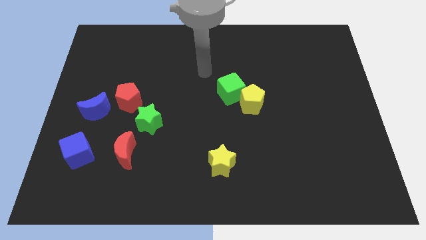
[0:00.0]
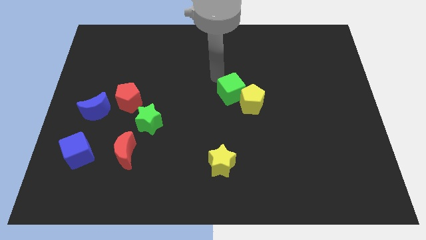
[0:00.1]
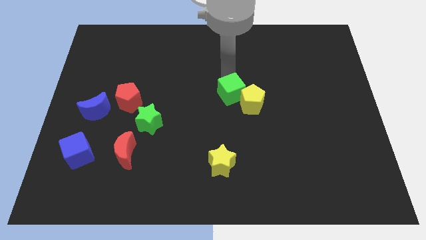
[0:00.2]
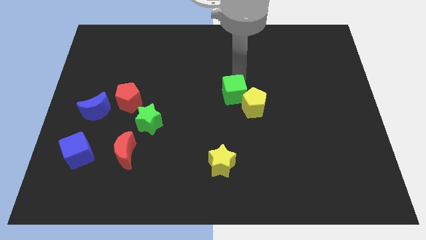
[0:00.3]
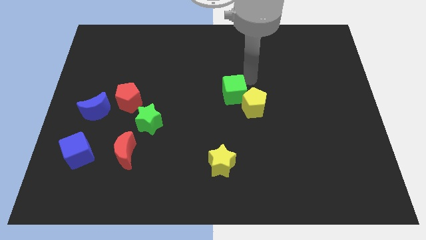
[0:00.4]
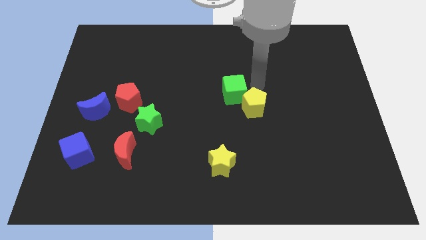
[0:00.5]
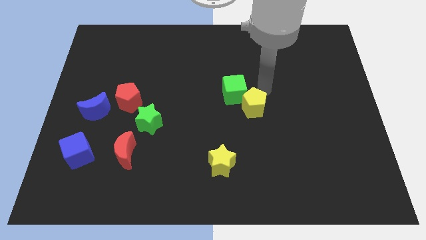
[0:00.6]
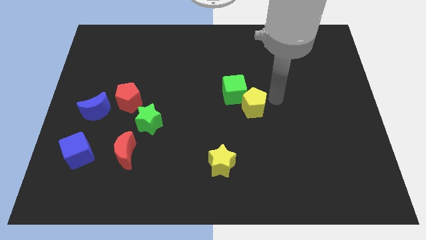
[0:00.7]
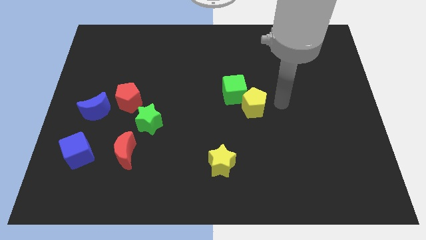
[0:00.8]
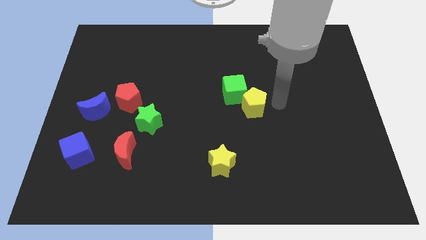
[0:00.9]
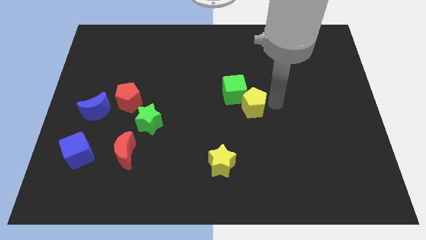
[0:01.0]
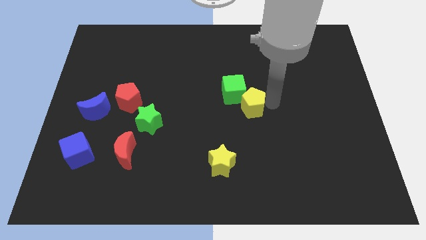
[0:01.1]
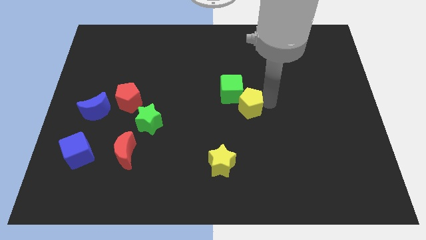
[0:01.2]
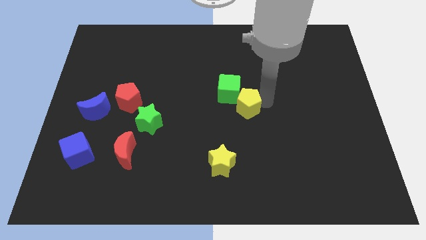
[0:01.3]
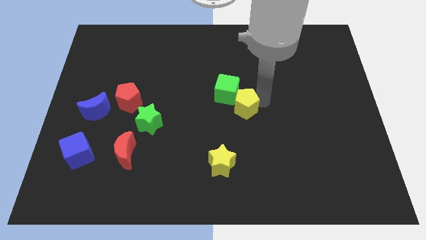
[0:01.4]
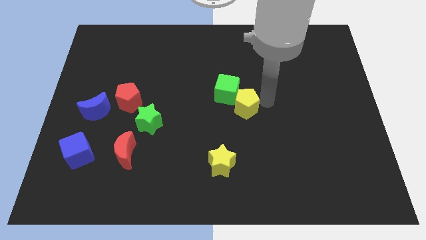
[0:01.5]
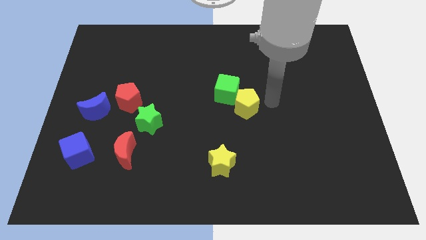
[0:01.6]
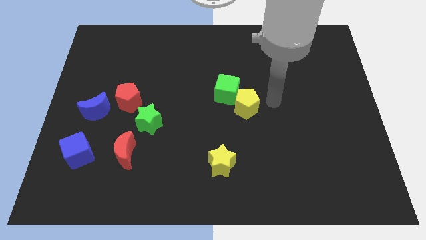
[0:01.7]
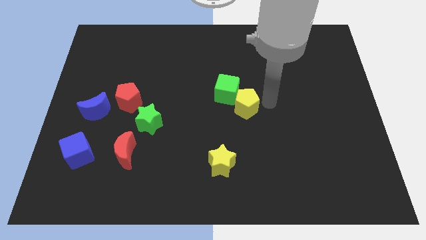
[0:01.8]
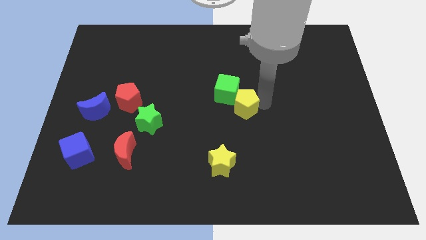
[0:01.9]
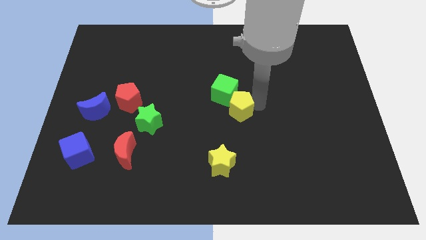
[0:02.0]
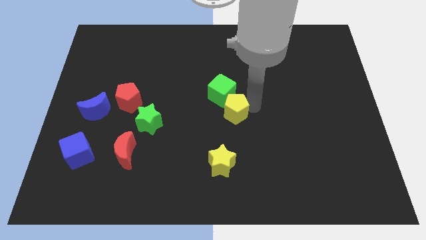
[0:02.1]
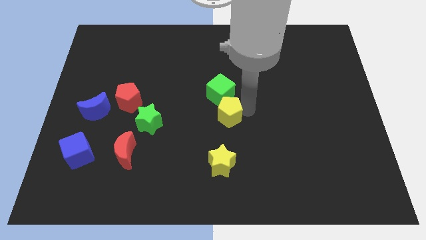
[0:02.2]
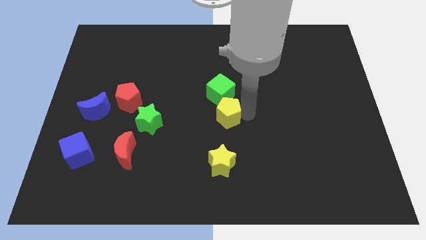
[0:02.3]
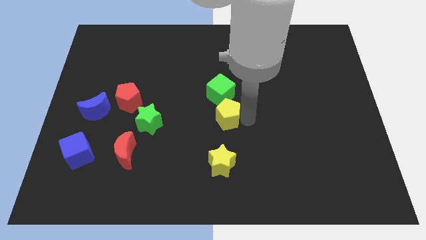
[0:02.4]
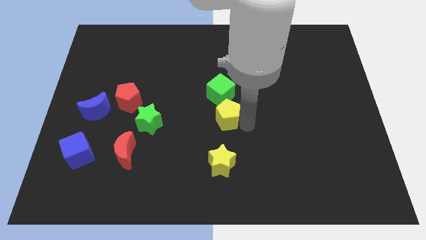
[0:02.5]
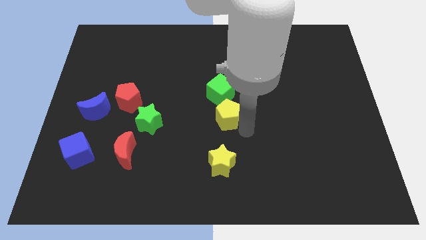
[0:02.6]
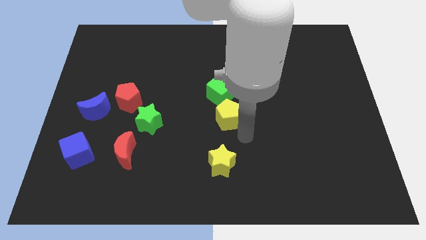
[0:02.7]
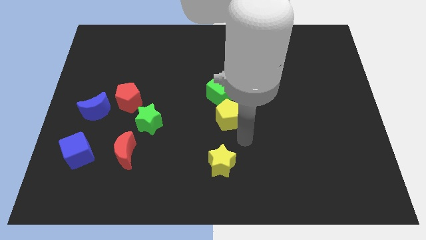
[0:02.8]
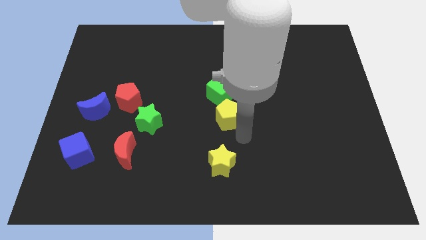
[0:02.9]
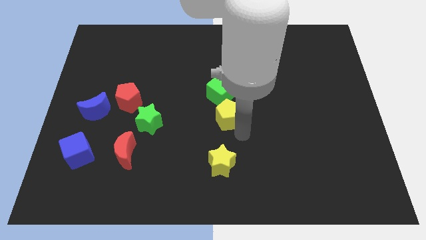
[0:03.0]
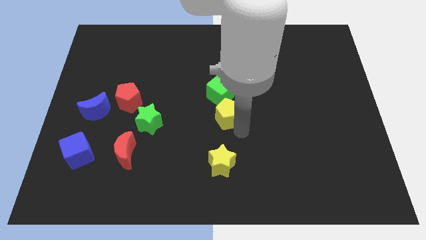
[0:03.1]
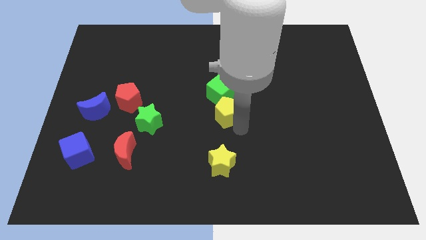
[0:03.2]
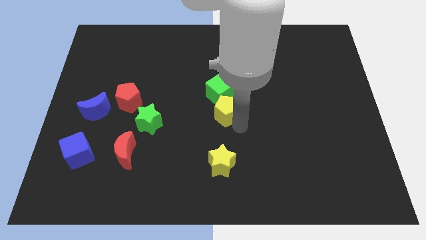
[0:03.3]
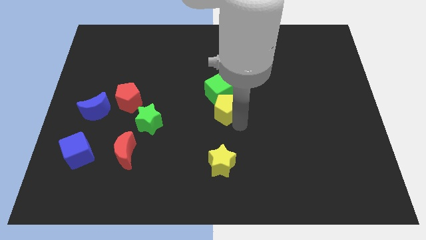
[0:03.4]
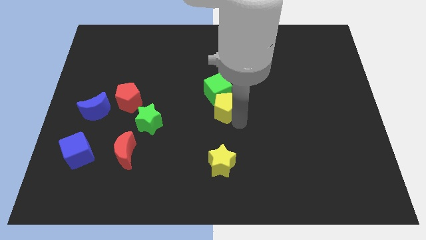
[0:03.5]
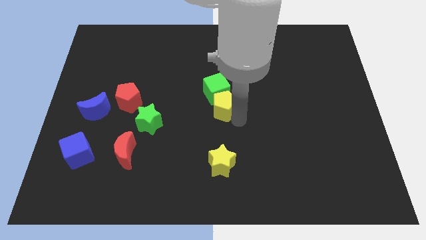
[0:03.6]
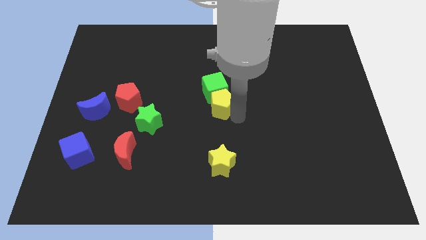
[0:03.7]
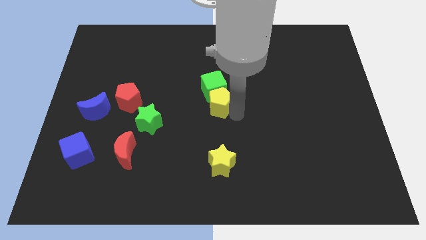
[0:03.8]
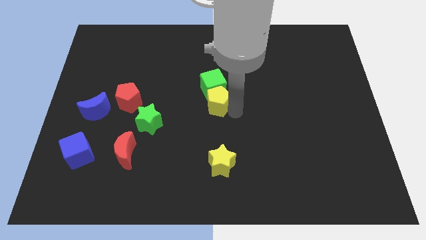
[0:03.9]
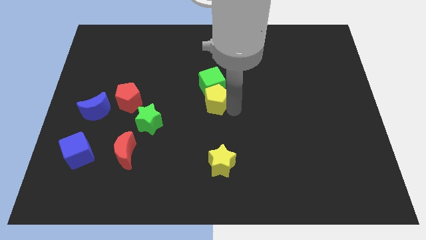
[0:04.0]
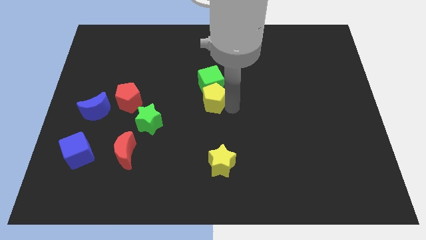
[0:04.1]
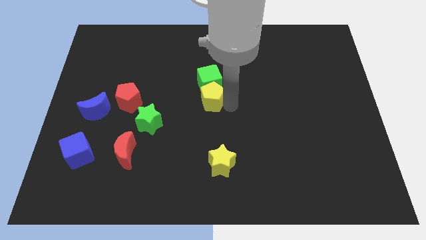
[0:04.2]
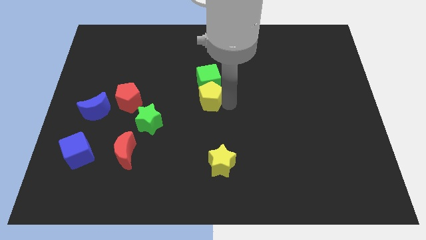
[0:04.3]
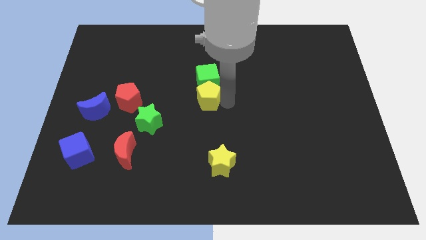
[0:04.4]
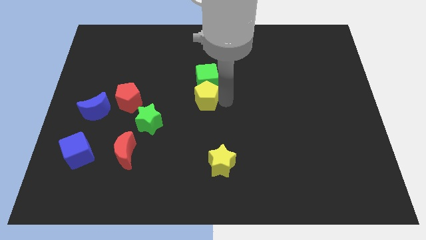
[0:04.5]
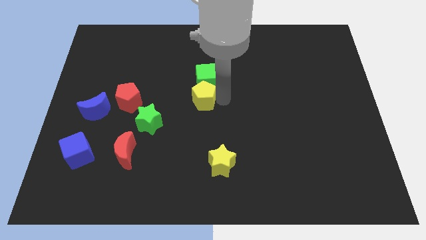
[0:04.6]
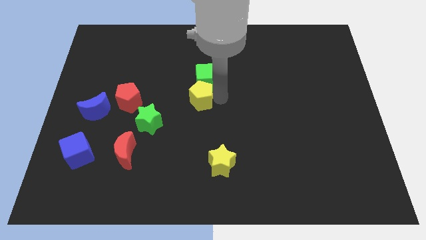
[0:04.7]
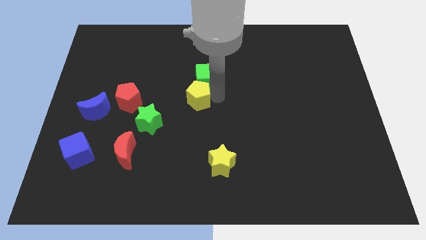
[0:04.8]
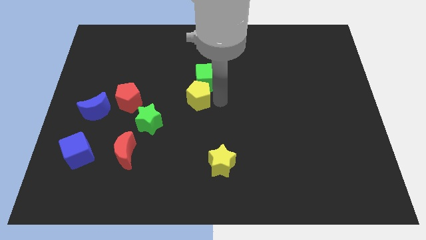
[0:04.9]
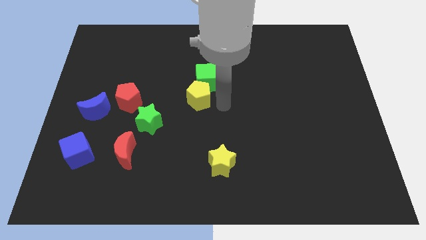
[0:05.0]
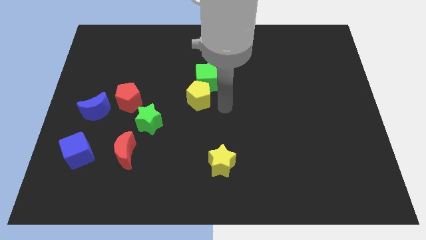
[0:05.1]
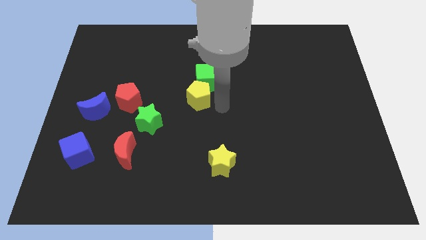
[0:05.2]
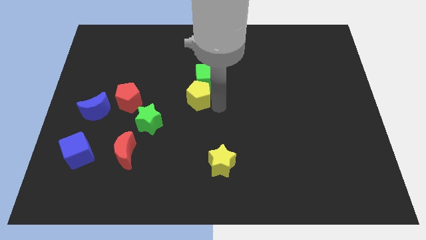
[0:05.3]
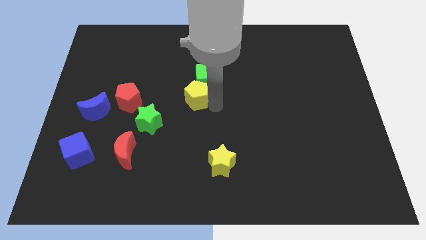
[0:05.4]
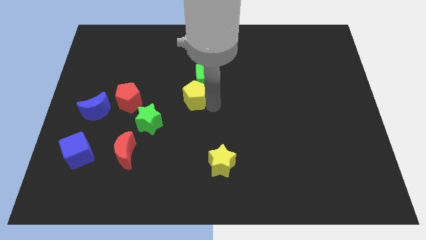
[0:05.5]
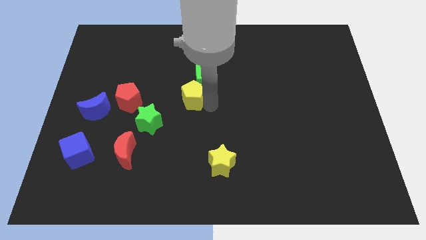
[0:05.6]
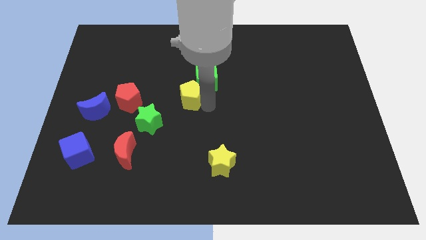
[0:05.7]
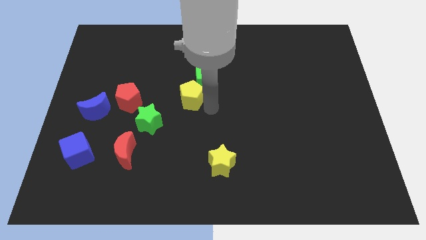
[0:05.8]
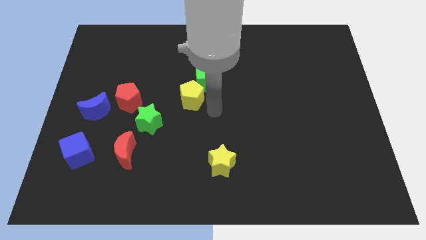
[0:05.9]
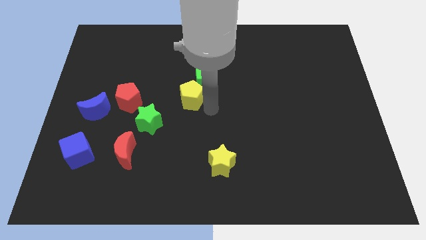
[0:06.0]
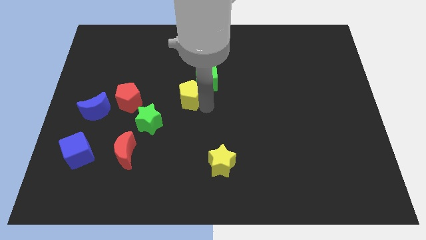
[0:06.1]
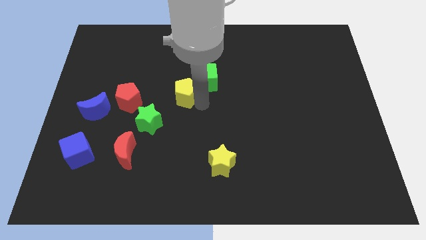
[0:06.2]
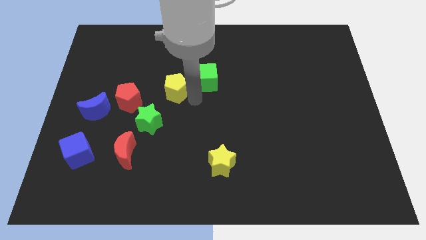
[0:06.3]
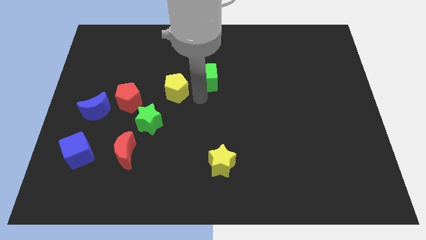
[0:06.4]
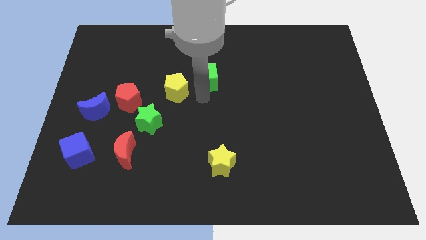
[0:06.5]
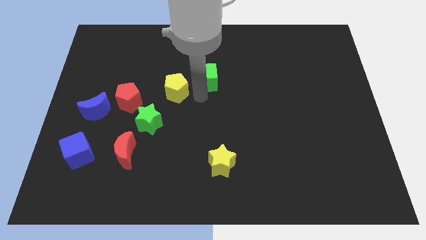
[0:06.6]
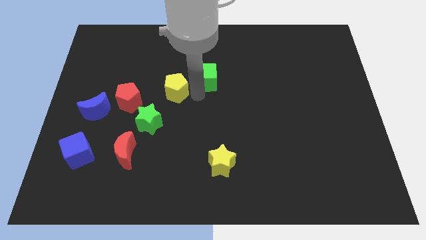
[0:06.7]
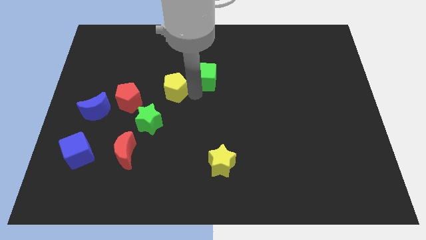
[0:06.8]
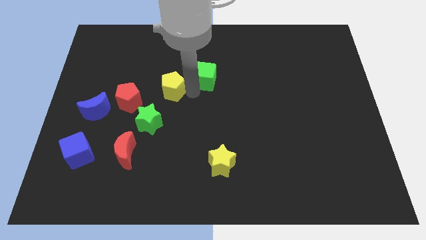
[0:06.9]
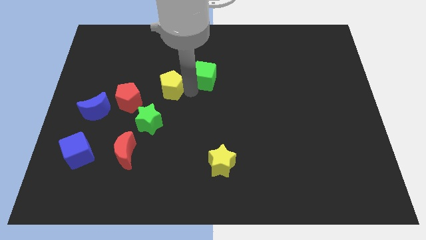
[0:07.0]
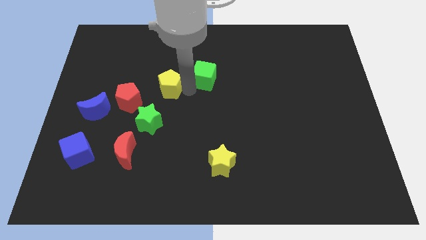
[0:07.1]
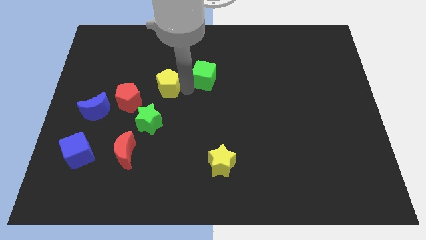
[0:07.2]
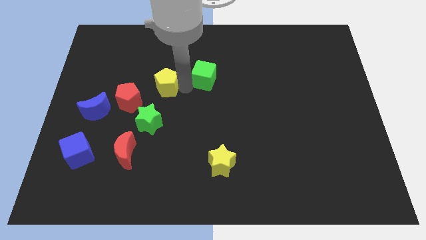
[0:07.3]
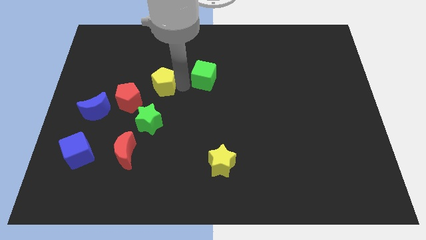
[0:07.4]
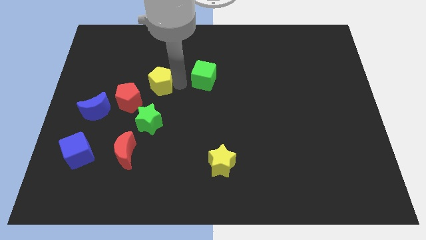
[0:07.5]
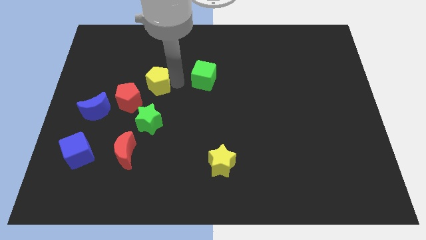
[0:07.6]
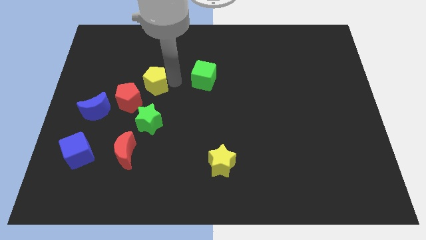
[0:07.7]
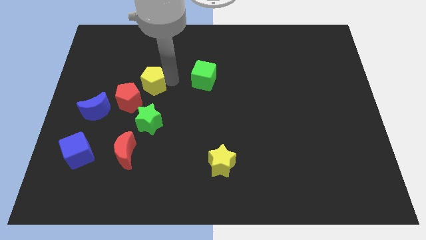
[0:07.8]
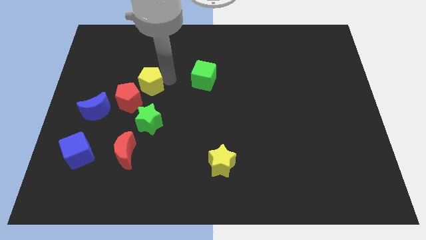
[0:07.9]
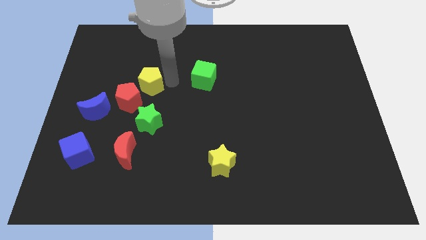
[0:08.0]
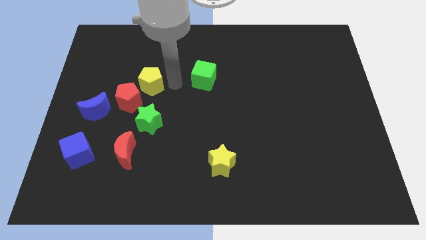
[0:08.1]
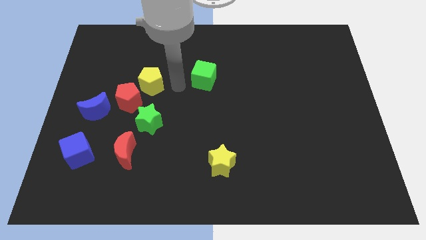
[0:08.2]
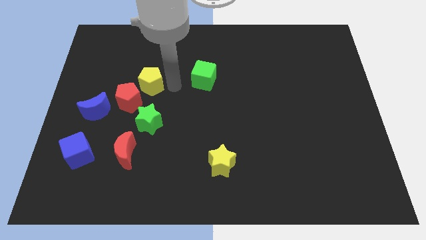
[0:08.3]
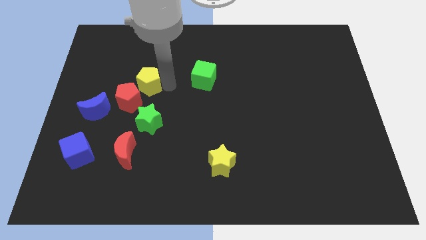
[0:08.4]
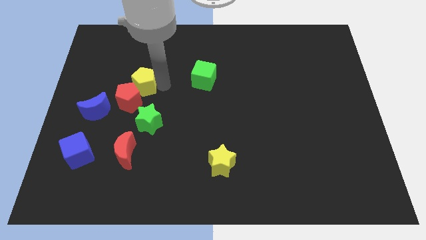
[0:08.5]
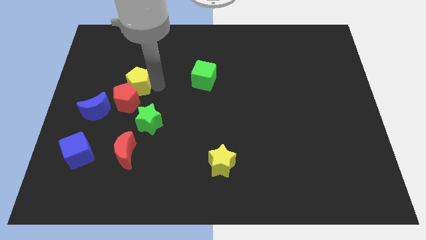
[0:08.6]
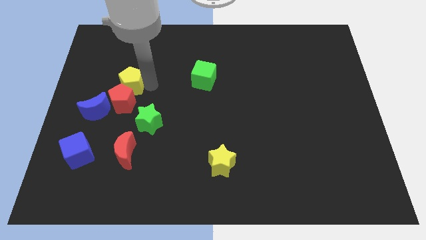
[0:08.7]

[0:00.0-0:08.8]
push the yellow pentagon to the top left of the red pentagon
